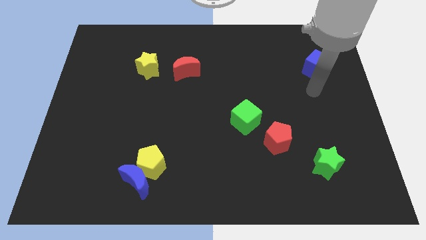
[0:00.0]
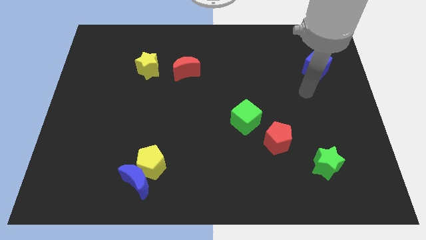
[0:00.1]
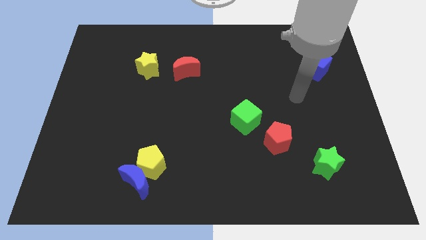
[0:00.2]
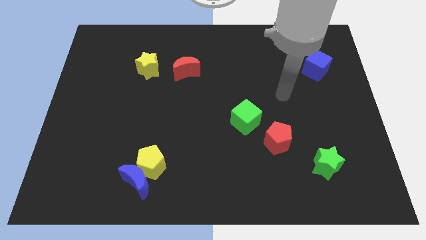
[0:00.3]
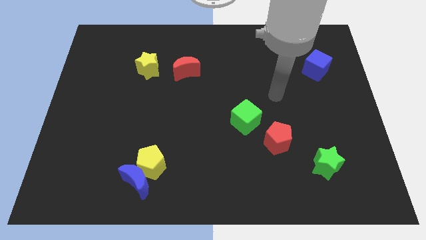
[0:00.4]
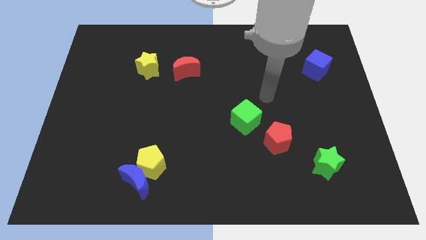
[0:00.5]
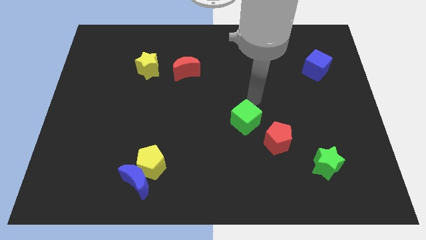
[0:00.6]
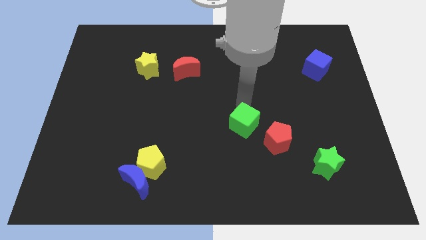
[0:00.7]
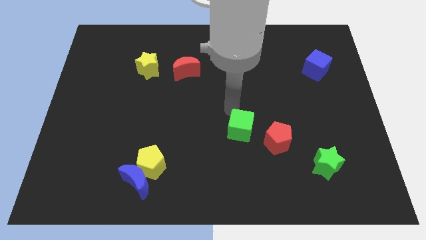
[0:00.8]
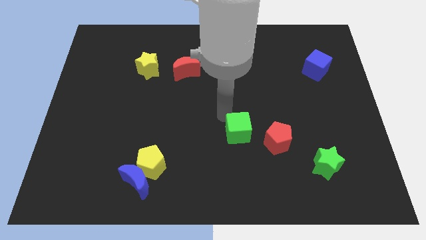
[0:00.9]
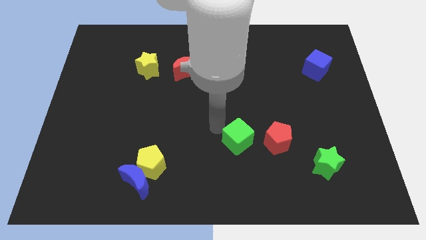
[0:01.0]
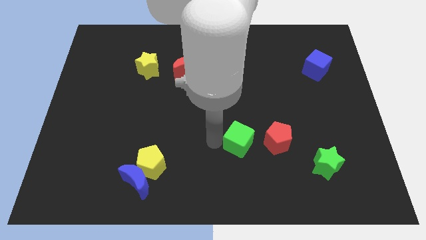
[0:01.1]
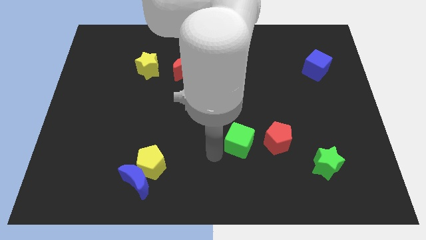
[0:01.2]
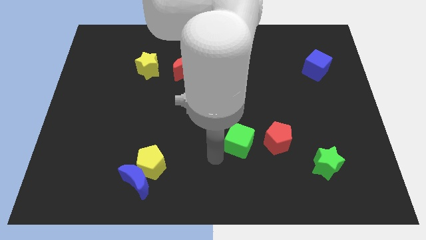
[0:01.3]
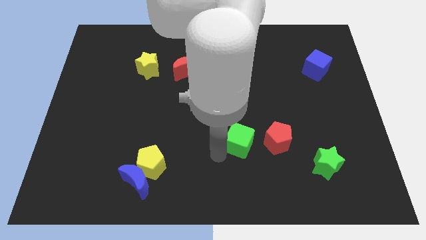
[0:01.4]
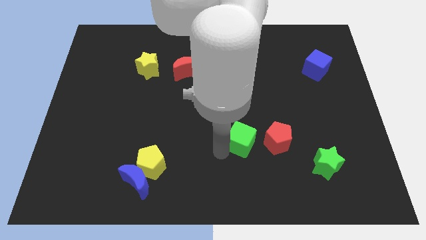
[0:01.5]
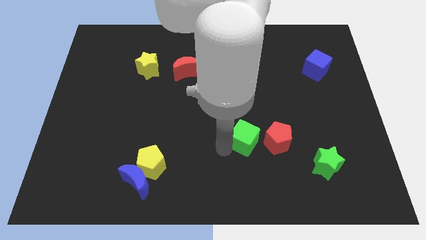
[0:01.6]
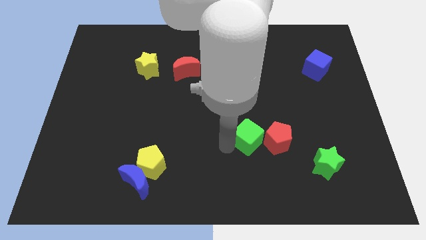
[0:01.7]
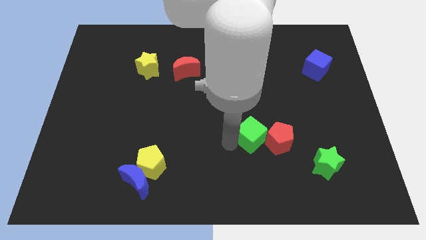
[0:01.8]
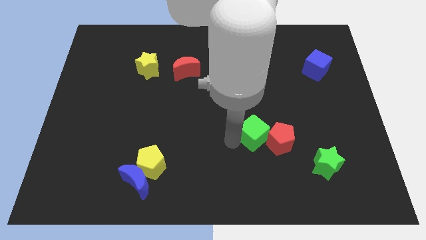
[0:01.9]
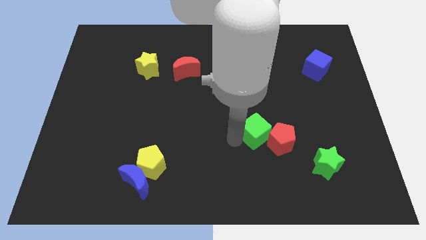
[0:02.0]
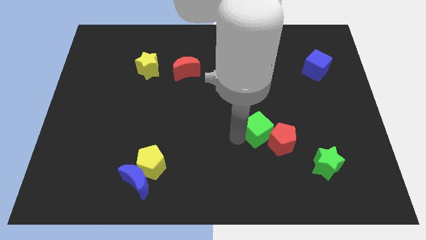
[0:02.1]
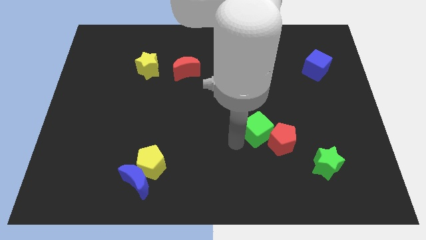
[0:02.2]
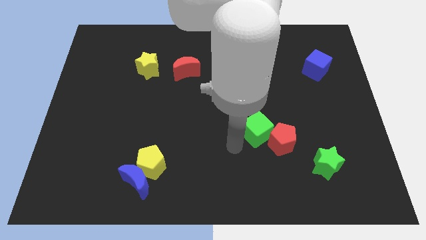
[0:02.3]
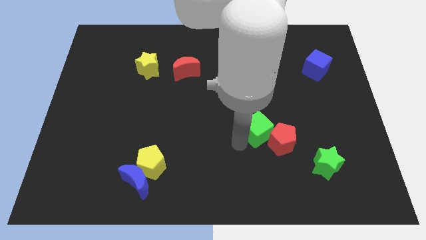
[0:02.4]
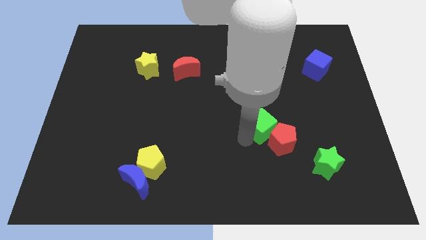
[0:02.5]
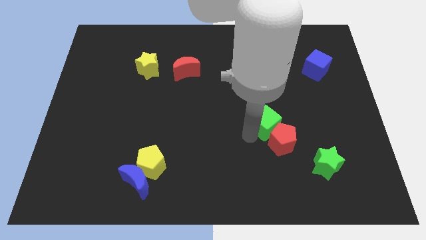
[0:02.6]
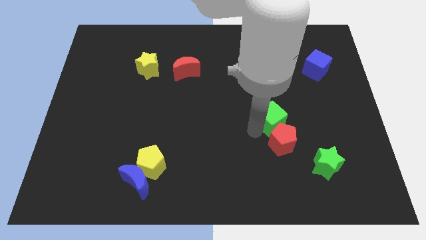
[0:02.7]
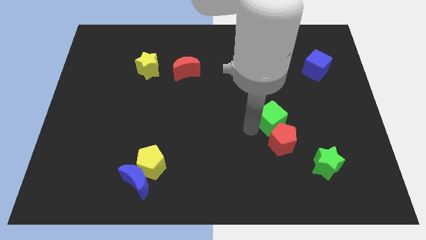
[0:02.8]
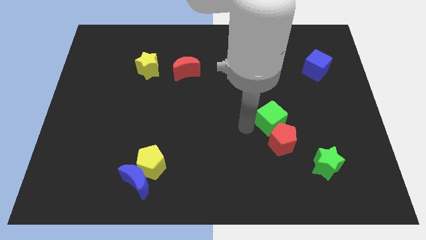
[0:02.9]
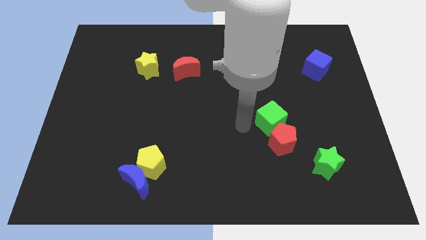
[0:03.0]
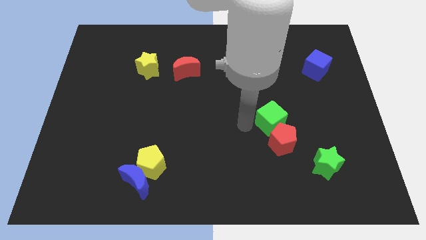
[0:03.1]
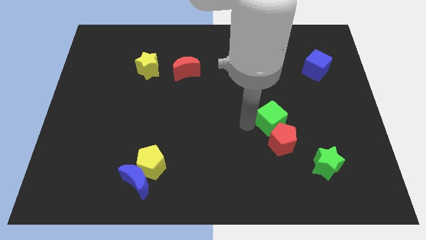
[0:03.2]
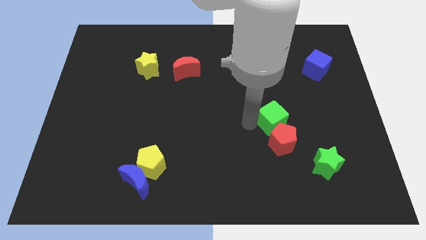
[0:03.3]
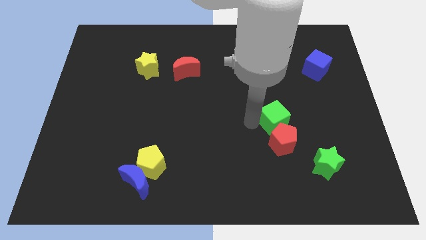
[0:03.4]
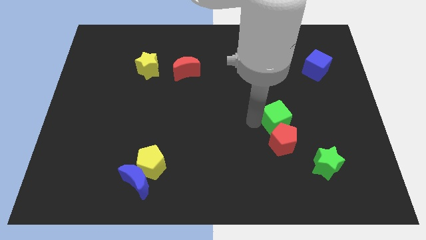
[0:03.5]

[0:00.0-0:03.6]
push the green cube to the right slightly

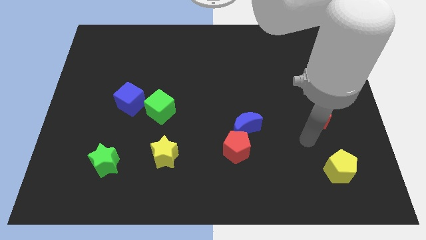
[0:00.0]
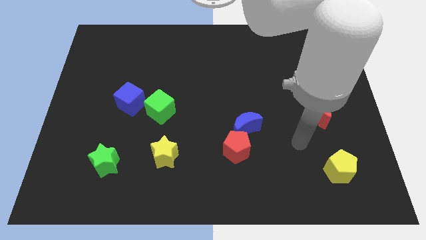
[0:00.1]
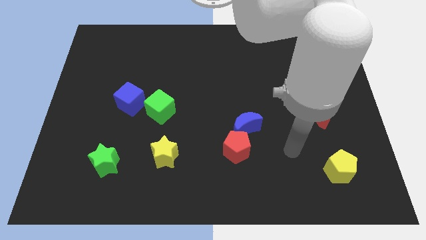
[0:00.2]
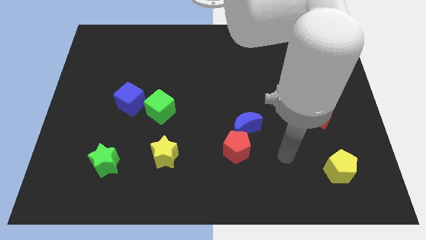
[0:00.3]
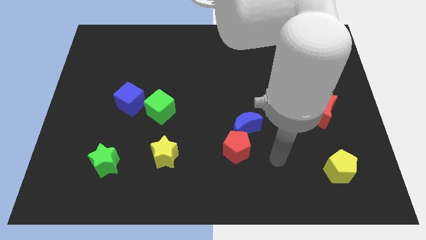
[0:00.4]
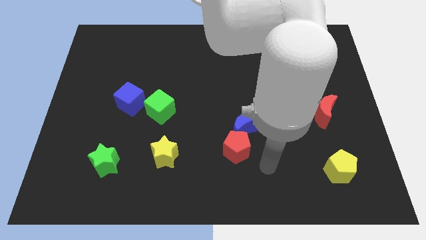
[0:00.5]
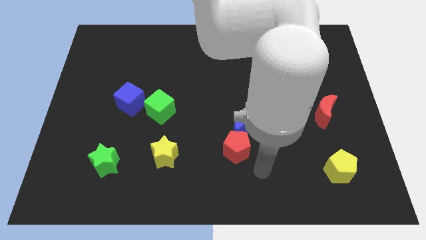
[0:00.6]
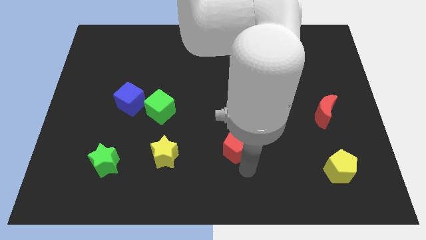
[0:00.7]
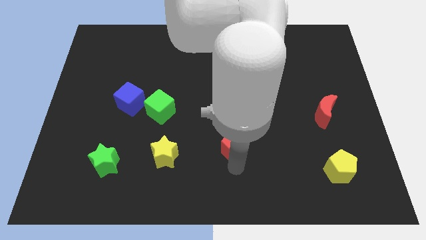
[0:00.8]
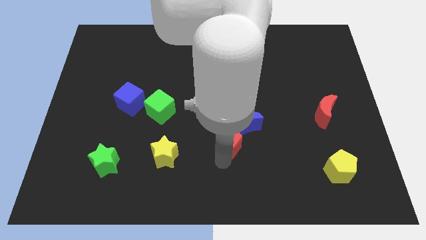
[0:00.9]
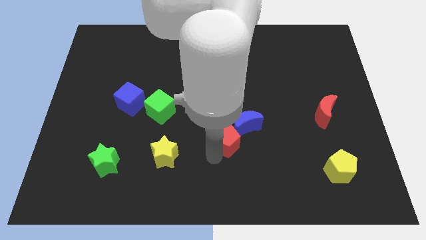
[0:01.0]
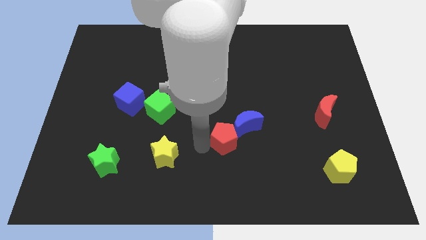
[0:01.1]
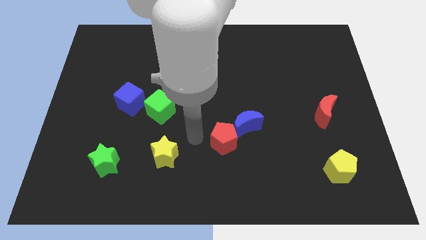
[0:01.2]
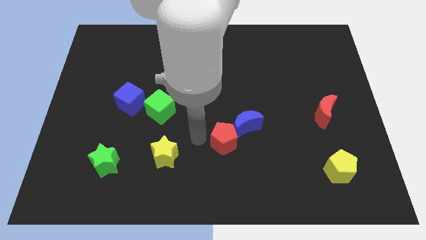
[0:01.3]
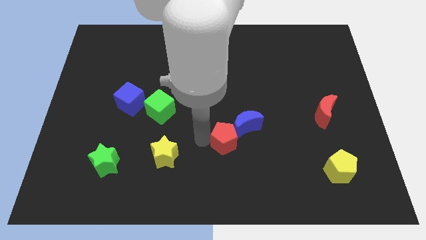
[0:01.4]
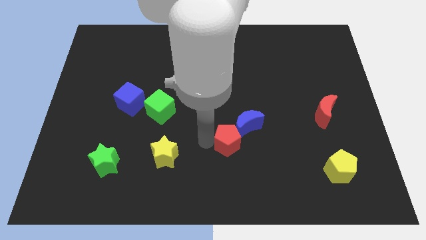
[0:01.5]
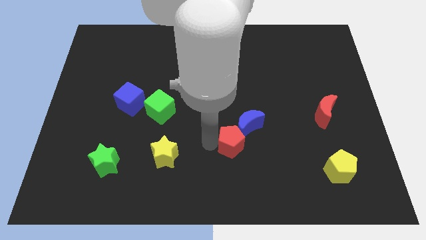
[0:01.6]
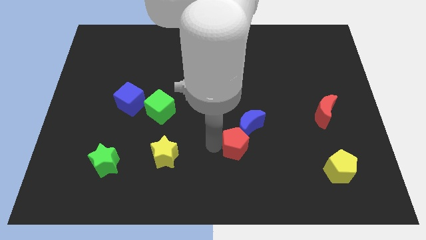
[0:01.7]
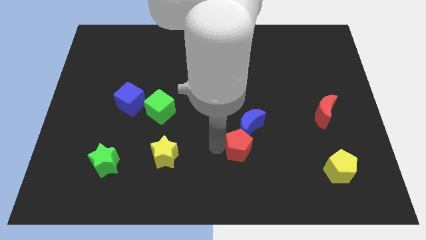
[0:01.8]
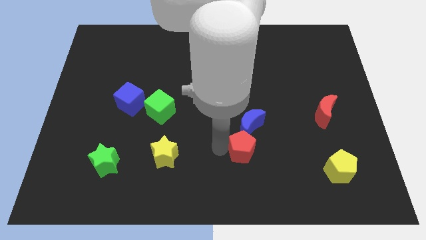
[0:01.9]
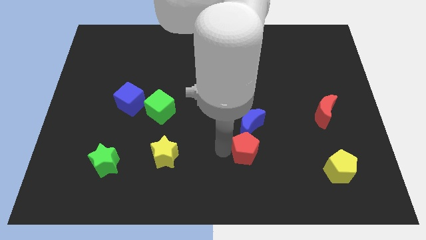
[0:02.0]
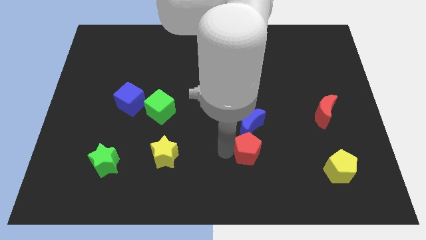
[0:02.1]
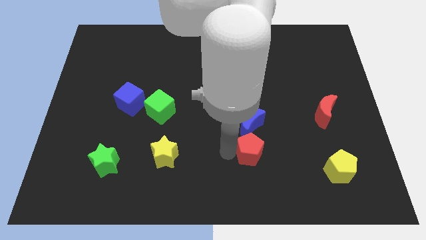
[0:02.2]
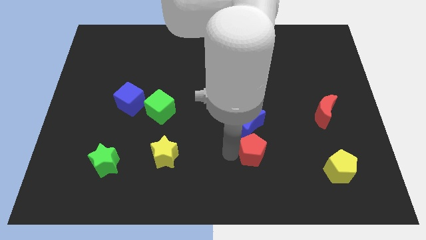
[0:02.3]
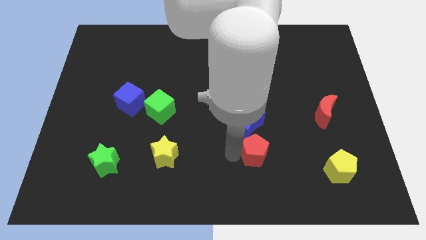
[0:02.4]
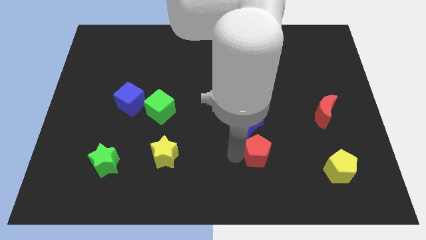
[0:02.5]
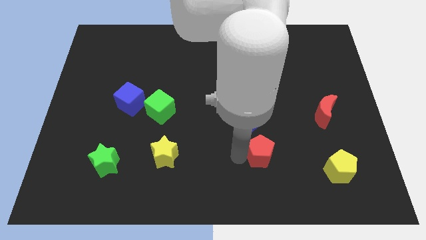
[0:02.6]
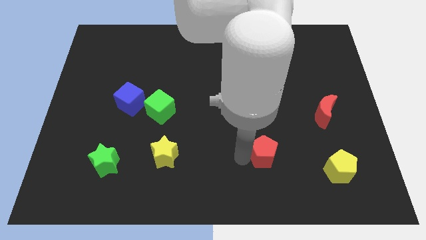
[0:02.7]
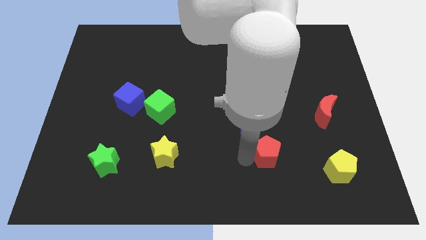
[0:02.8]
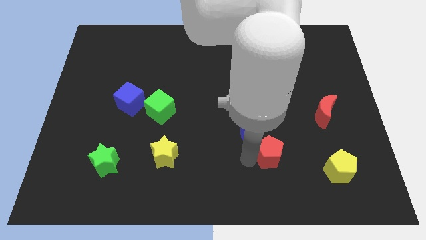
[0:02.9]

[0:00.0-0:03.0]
slightly slide the red pentagon to the right

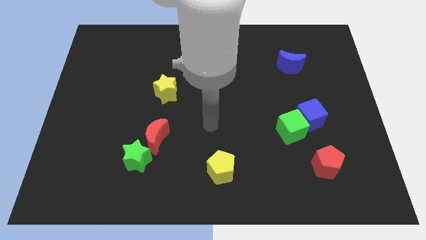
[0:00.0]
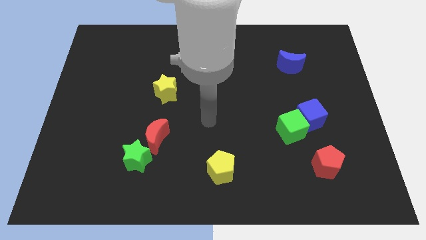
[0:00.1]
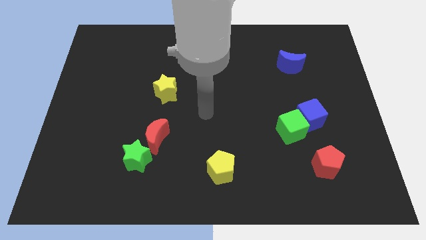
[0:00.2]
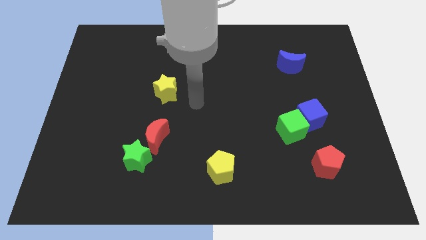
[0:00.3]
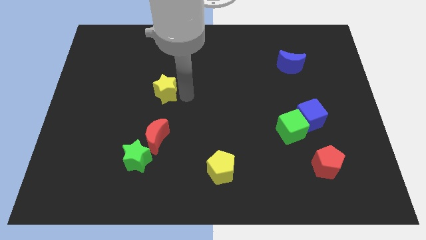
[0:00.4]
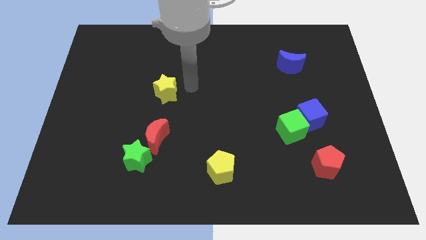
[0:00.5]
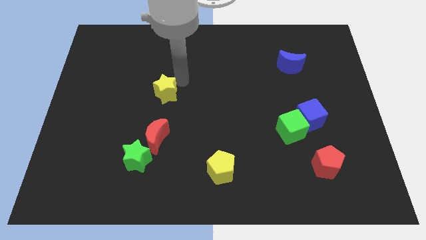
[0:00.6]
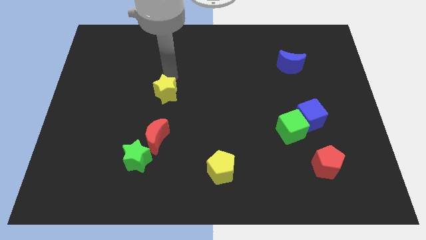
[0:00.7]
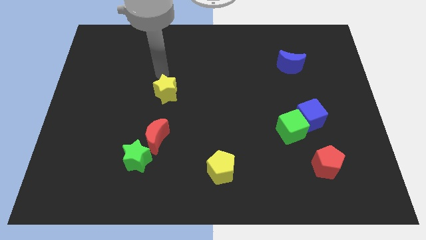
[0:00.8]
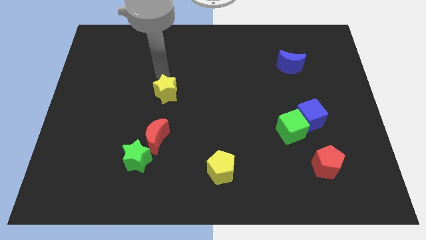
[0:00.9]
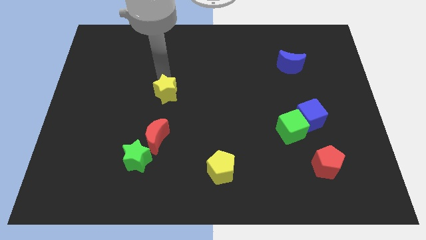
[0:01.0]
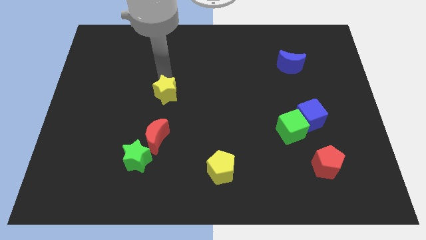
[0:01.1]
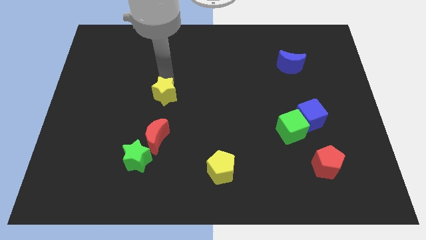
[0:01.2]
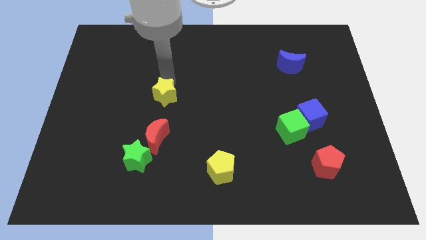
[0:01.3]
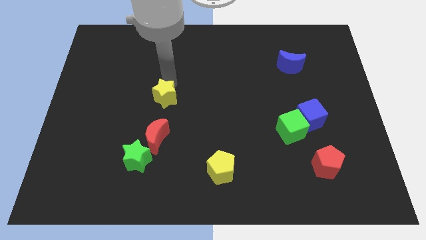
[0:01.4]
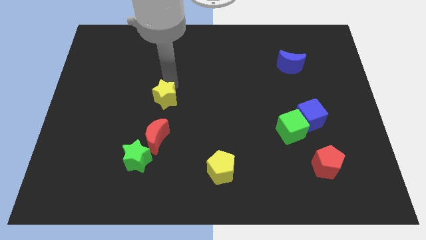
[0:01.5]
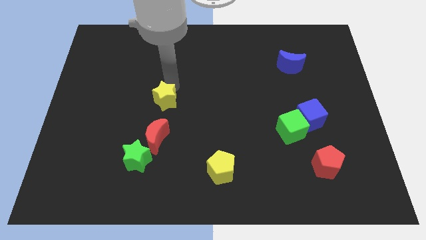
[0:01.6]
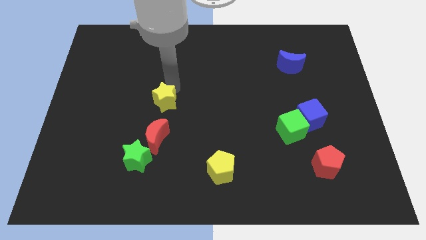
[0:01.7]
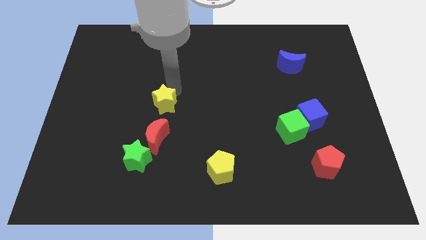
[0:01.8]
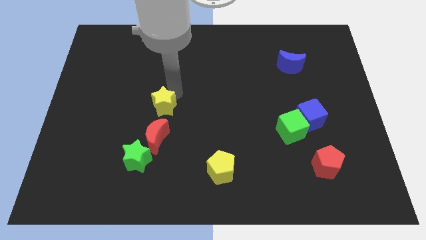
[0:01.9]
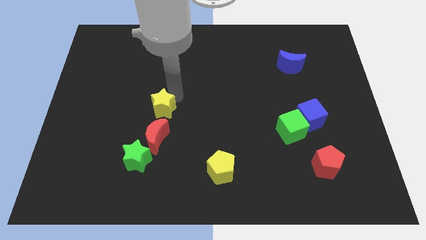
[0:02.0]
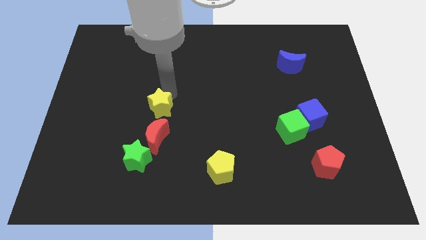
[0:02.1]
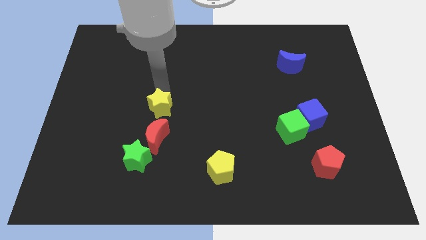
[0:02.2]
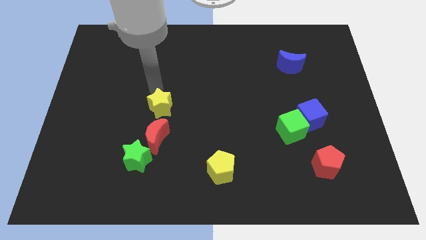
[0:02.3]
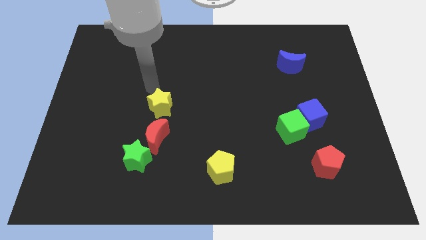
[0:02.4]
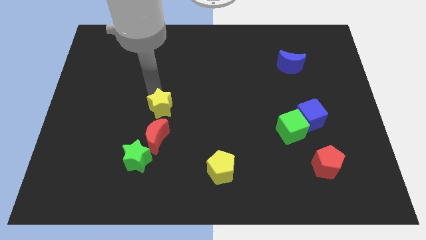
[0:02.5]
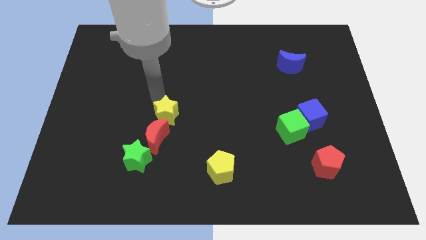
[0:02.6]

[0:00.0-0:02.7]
slightly slide the yellow star downwards
